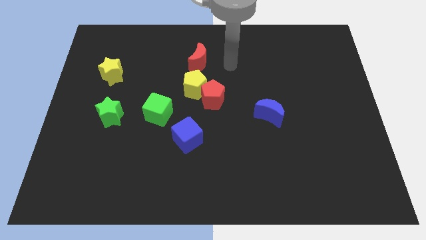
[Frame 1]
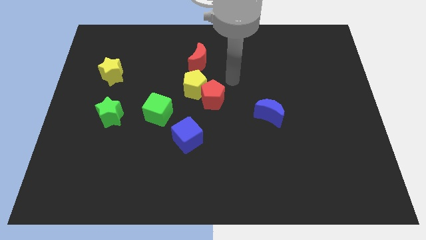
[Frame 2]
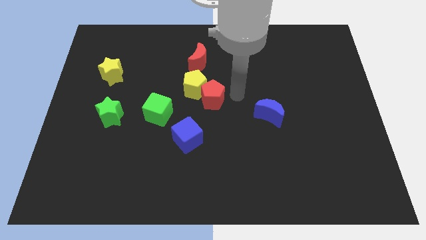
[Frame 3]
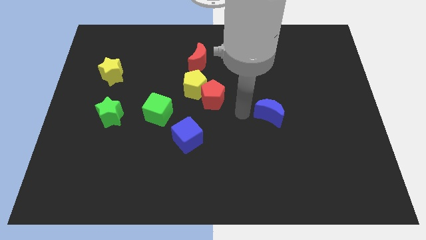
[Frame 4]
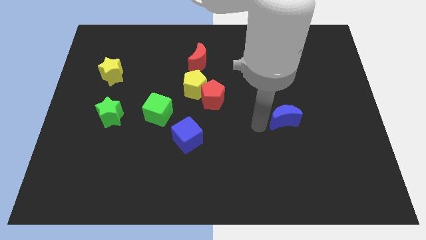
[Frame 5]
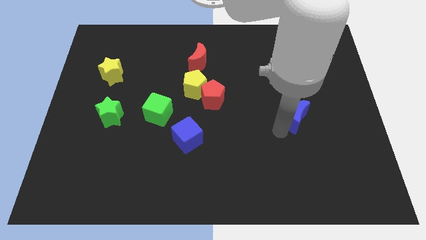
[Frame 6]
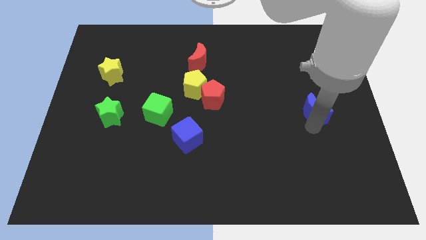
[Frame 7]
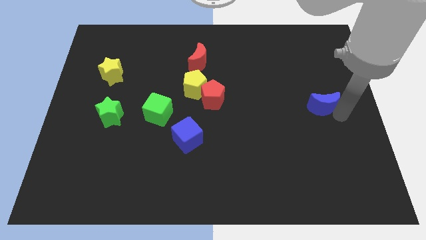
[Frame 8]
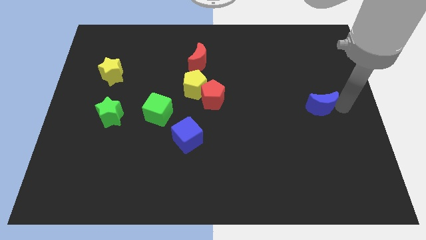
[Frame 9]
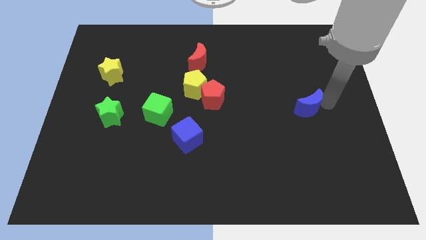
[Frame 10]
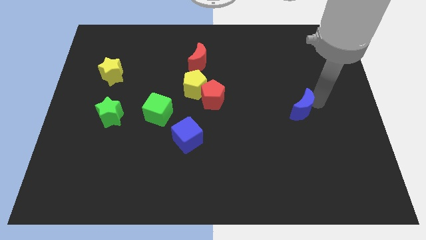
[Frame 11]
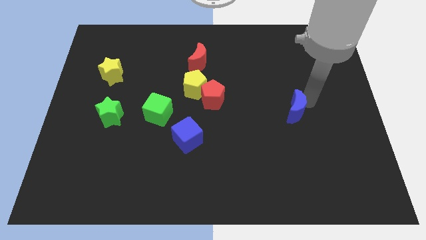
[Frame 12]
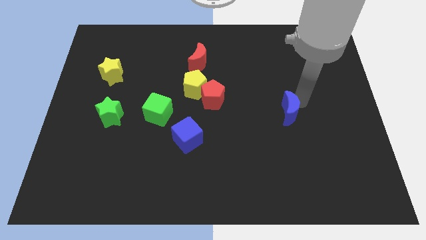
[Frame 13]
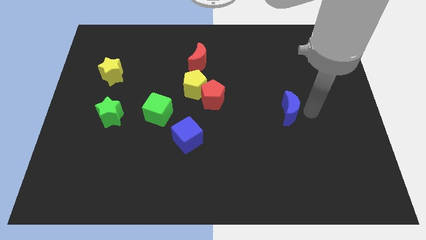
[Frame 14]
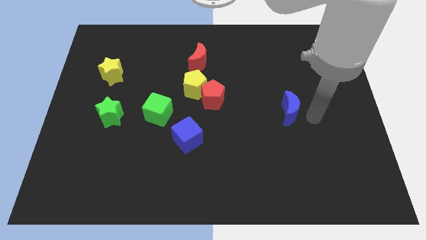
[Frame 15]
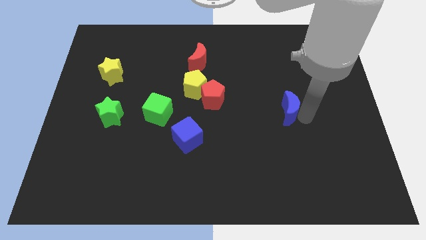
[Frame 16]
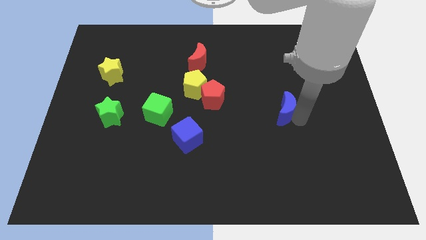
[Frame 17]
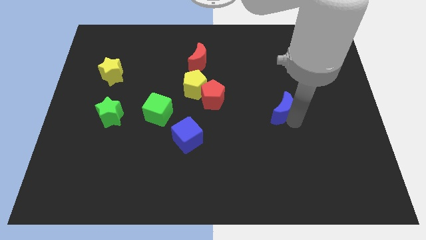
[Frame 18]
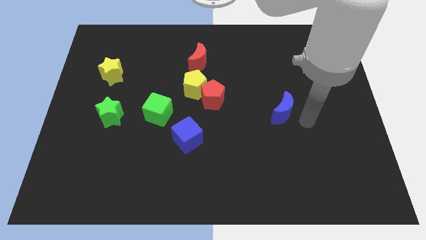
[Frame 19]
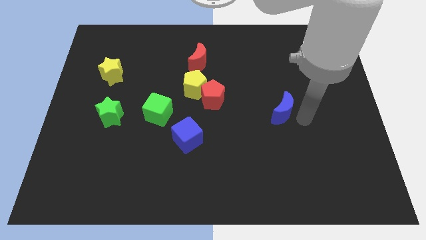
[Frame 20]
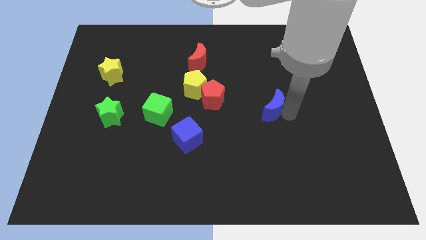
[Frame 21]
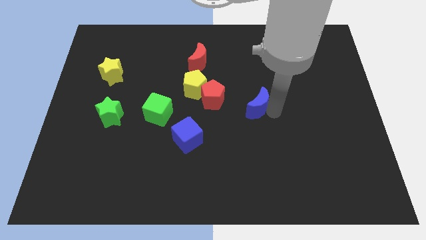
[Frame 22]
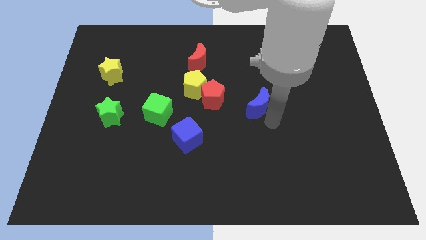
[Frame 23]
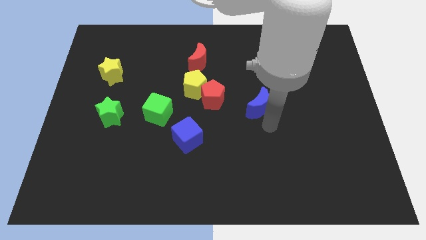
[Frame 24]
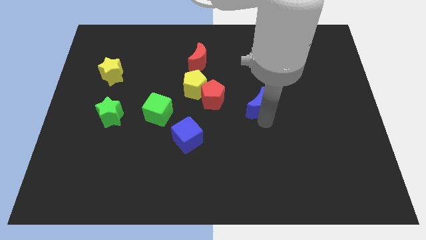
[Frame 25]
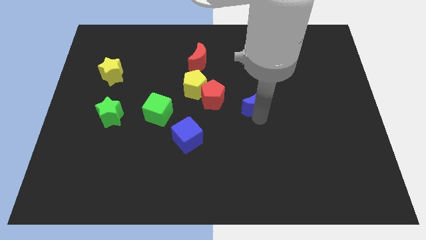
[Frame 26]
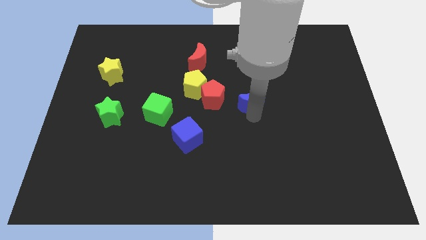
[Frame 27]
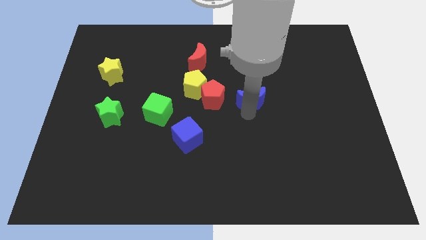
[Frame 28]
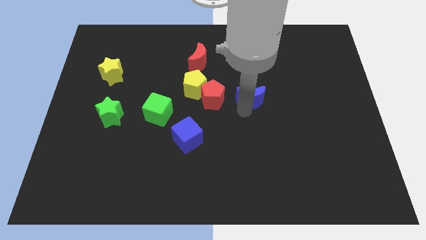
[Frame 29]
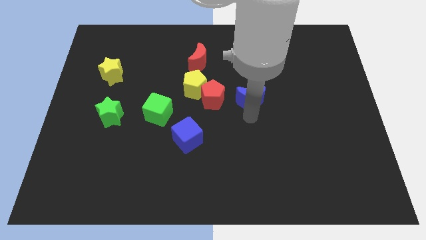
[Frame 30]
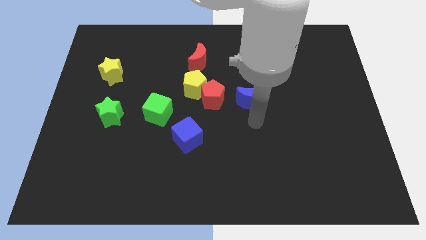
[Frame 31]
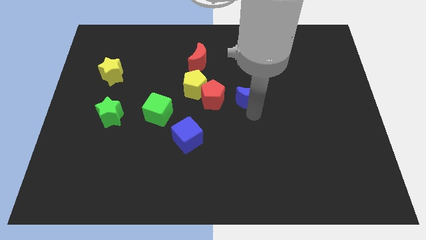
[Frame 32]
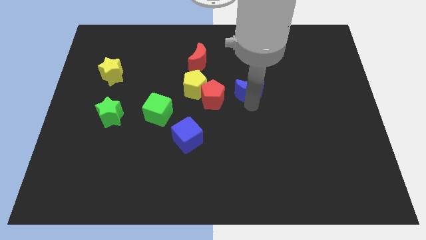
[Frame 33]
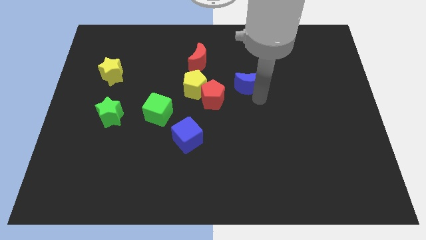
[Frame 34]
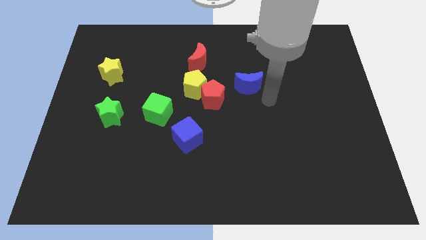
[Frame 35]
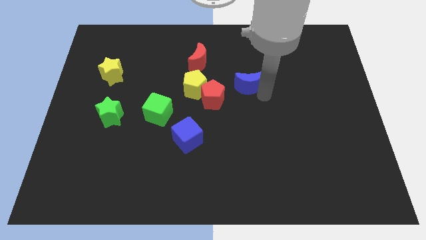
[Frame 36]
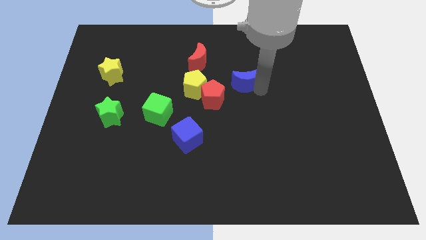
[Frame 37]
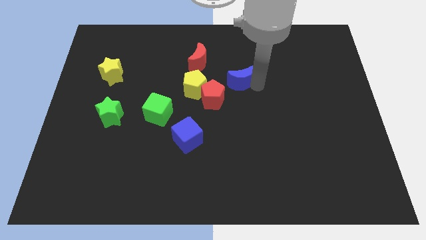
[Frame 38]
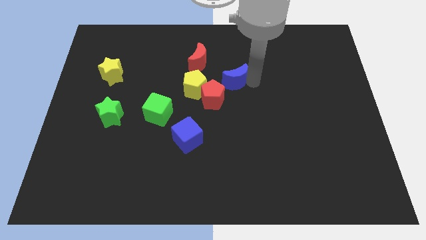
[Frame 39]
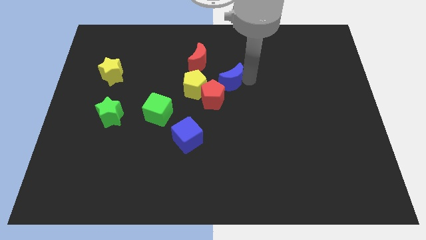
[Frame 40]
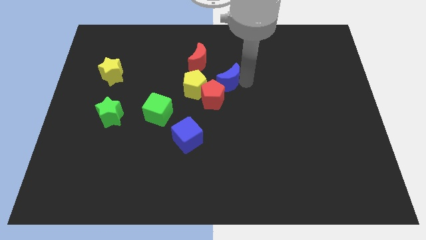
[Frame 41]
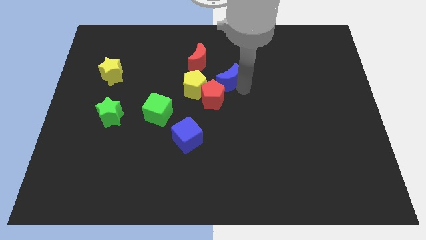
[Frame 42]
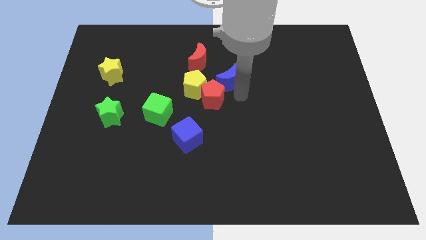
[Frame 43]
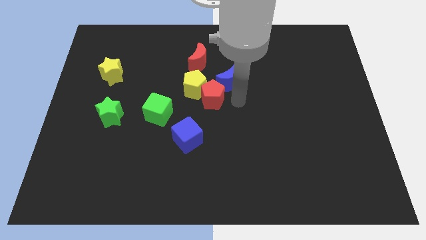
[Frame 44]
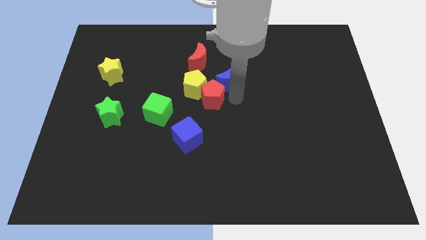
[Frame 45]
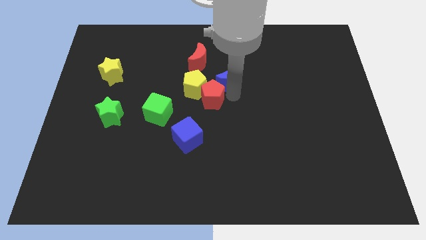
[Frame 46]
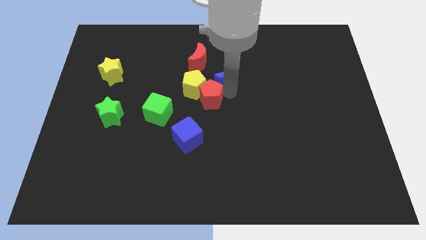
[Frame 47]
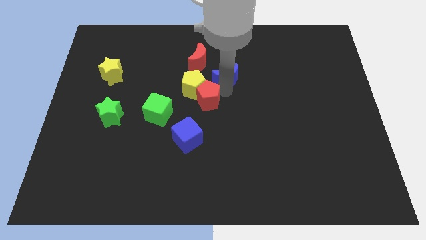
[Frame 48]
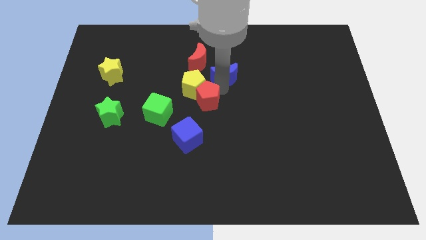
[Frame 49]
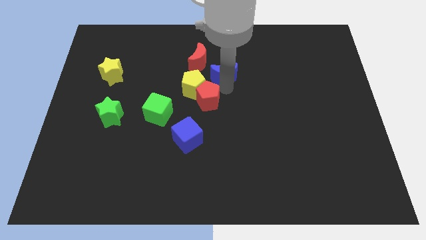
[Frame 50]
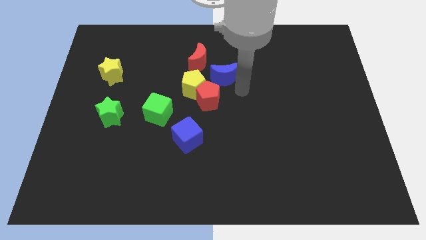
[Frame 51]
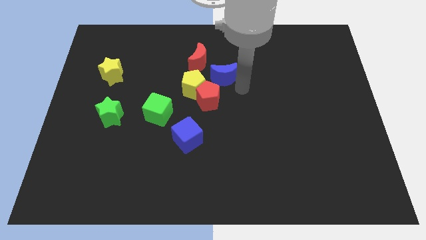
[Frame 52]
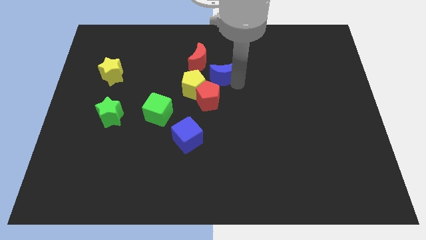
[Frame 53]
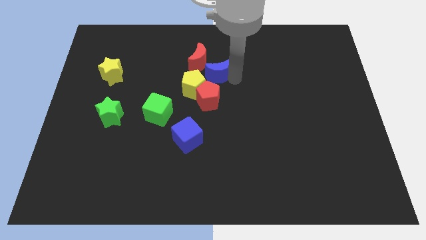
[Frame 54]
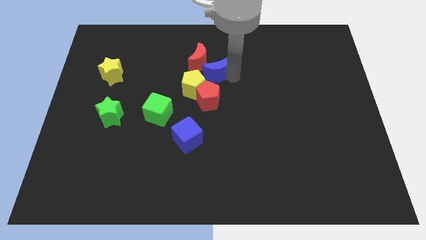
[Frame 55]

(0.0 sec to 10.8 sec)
push the blue moon close to the red moon

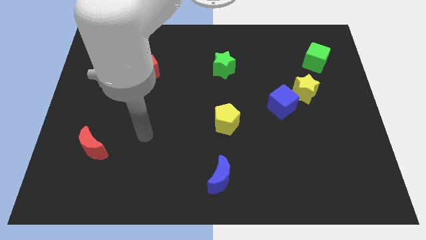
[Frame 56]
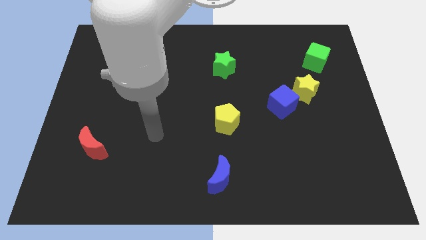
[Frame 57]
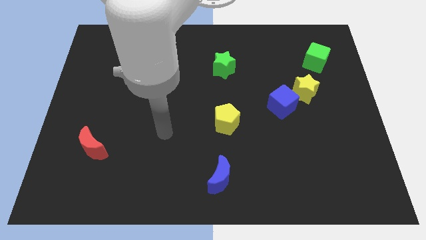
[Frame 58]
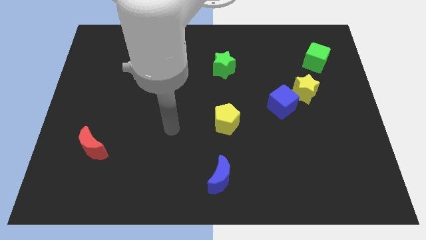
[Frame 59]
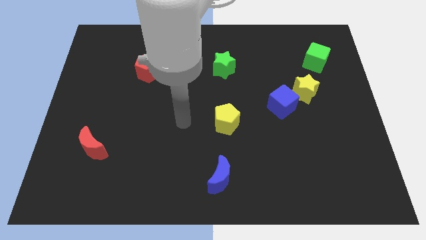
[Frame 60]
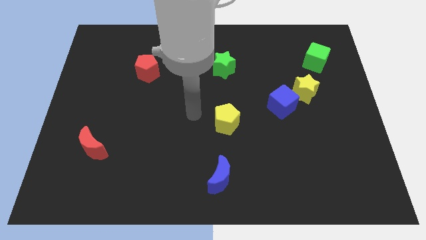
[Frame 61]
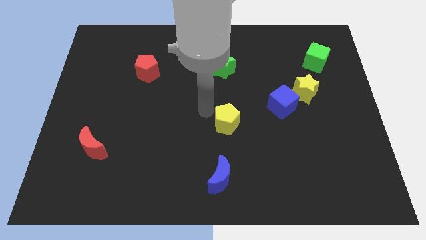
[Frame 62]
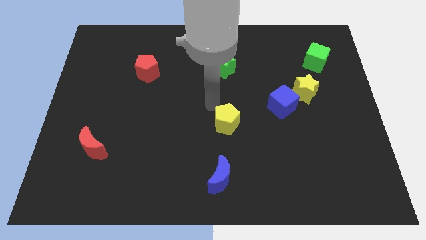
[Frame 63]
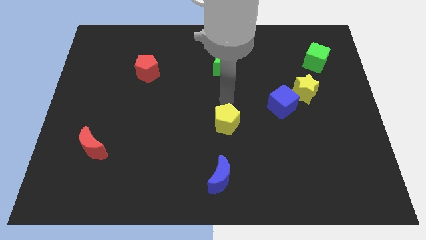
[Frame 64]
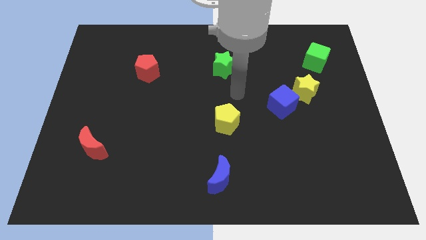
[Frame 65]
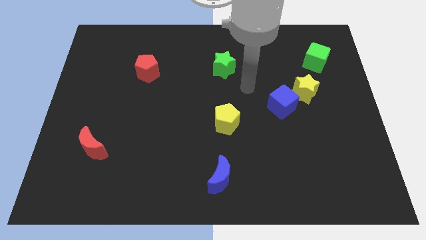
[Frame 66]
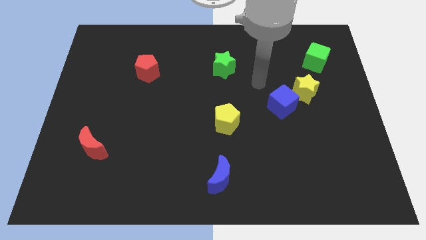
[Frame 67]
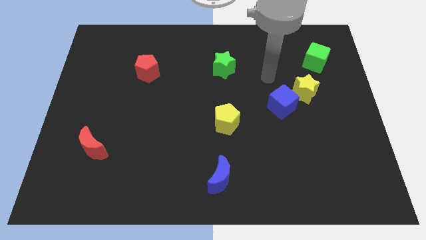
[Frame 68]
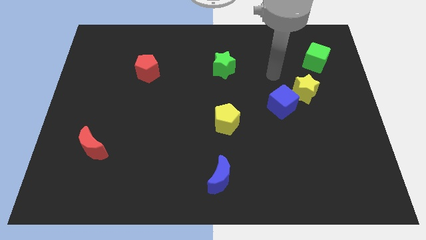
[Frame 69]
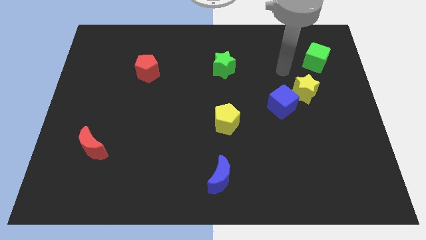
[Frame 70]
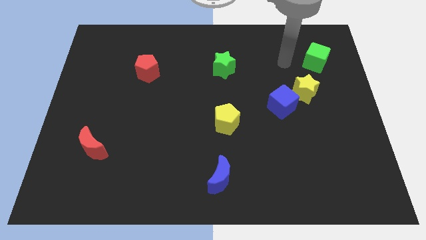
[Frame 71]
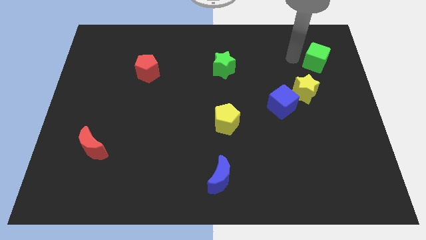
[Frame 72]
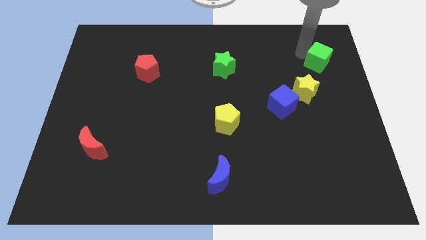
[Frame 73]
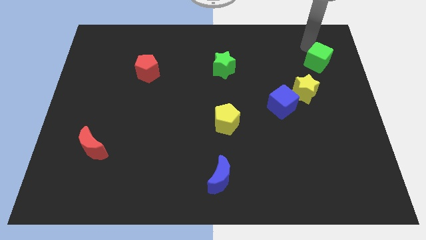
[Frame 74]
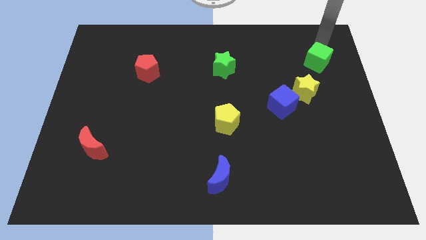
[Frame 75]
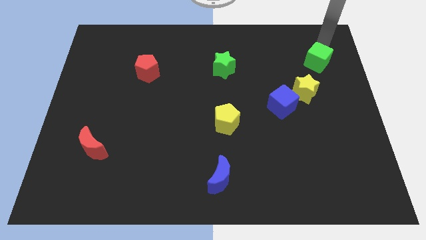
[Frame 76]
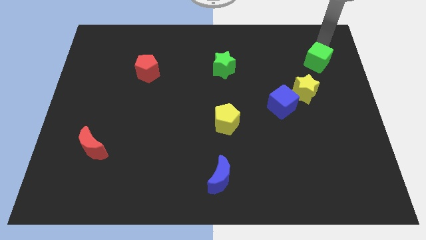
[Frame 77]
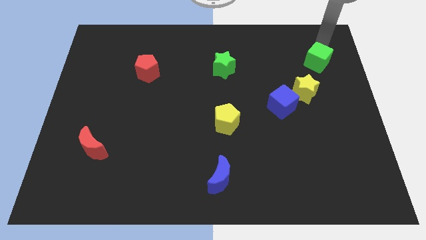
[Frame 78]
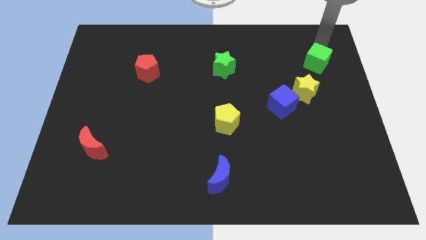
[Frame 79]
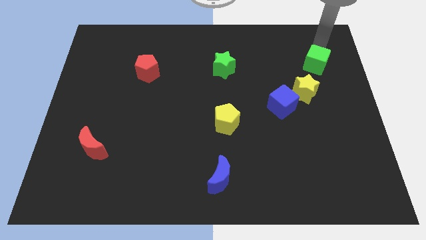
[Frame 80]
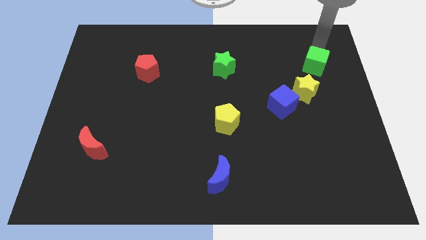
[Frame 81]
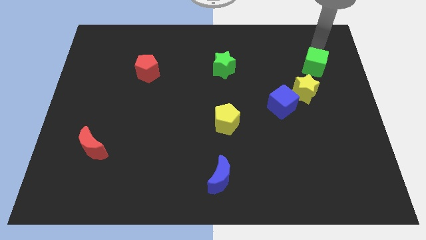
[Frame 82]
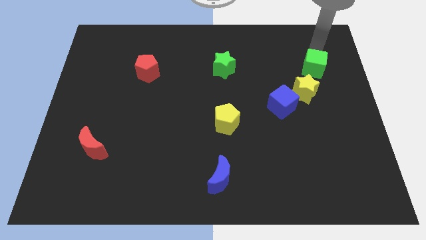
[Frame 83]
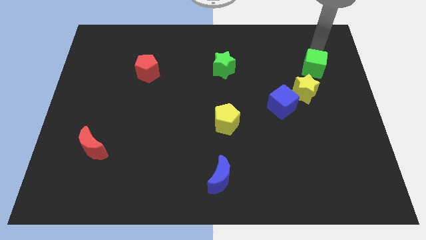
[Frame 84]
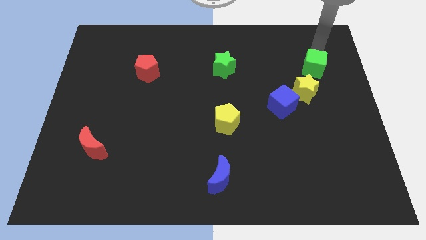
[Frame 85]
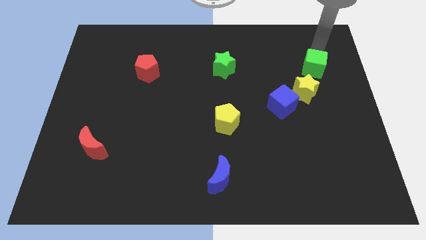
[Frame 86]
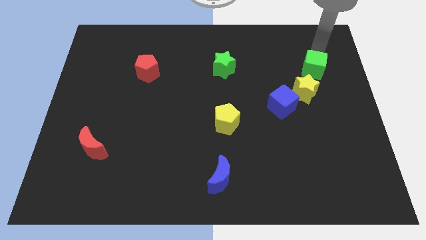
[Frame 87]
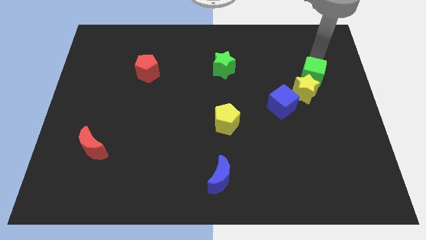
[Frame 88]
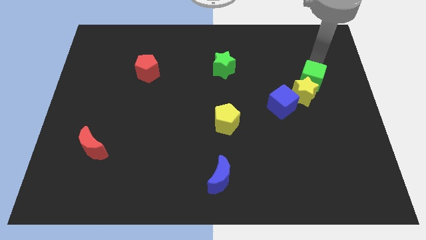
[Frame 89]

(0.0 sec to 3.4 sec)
slide the green cube close to the yellow star
